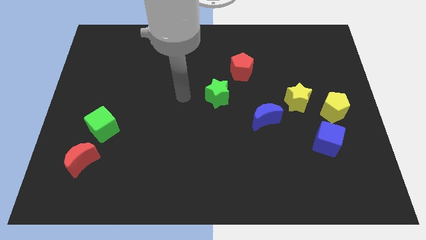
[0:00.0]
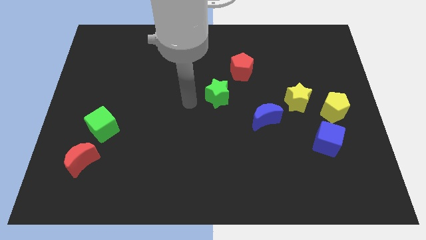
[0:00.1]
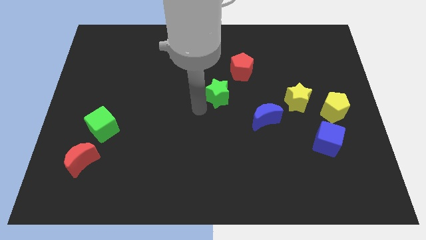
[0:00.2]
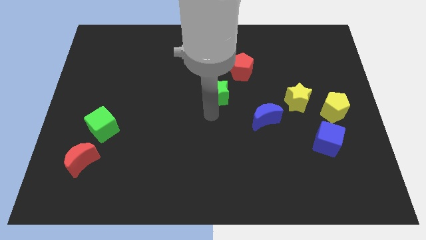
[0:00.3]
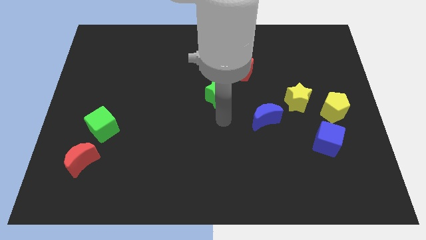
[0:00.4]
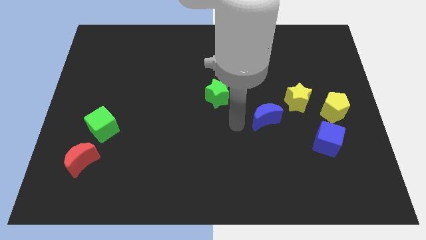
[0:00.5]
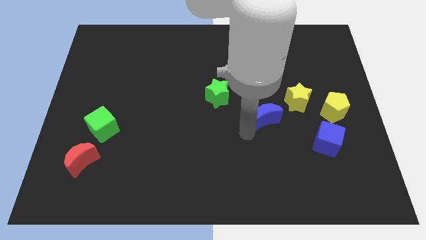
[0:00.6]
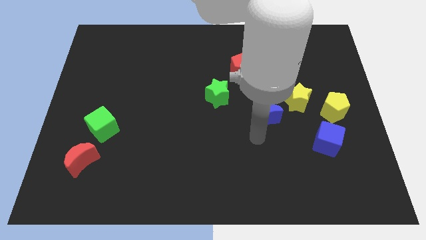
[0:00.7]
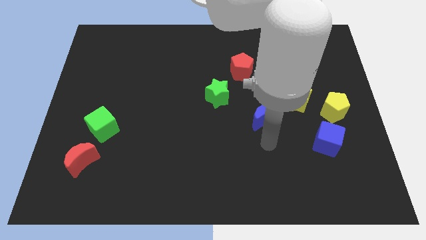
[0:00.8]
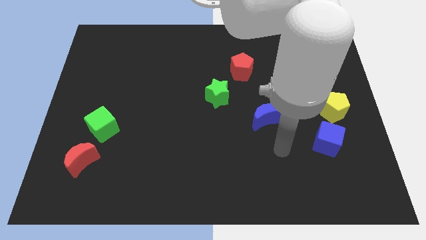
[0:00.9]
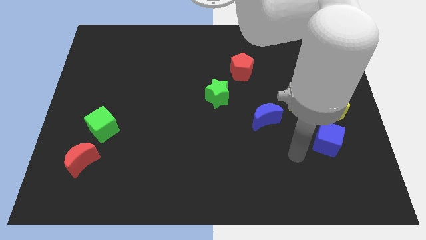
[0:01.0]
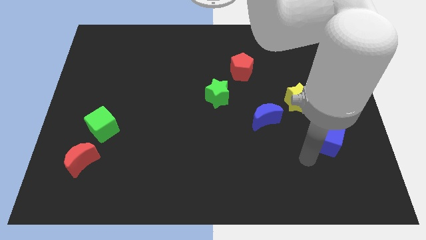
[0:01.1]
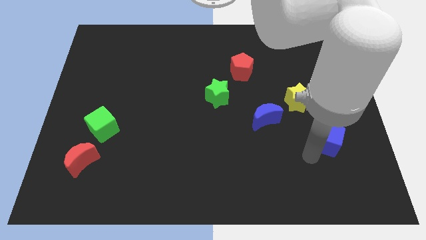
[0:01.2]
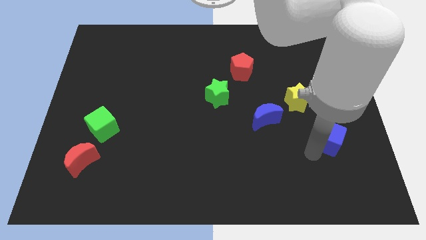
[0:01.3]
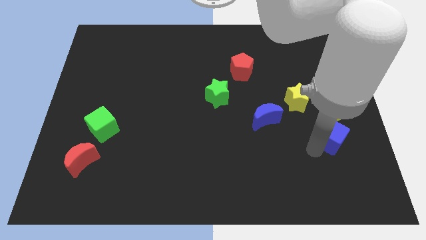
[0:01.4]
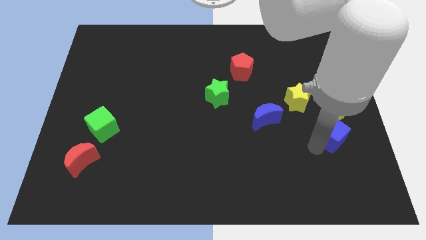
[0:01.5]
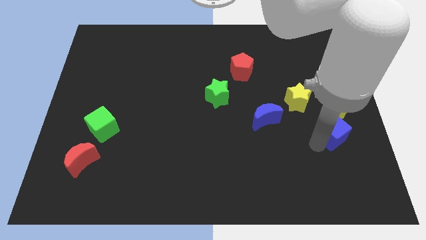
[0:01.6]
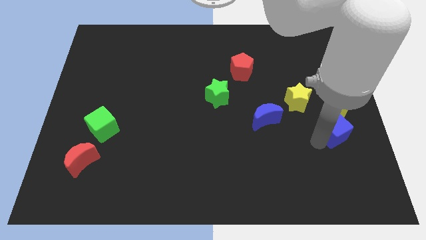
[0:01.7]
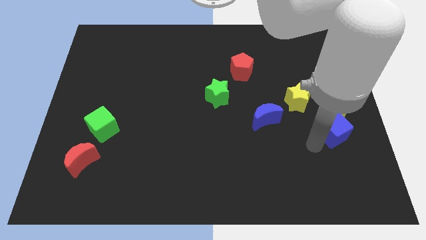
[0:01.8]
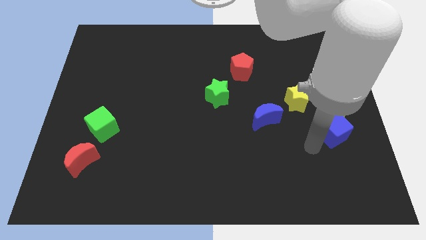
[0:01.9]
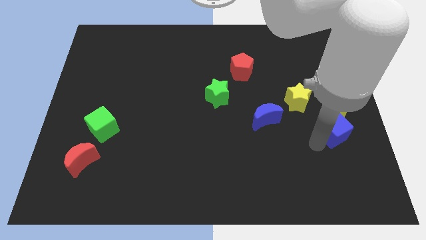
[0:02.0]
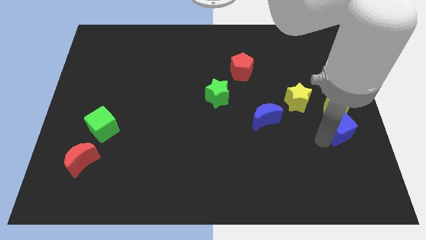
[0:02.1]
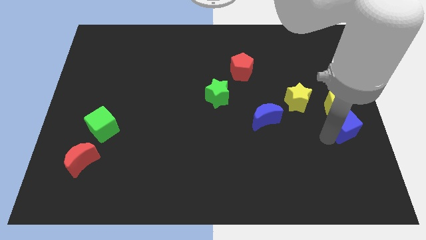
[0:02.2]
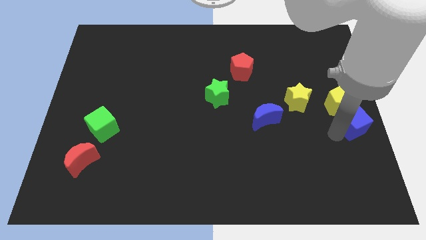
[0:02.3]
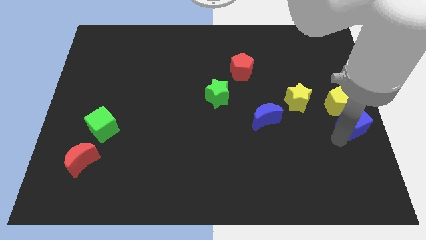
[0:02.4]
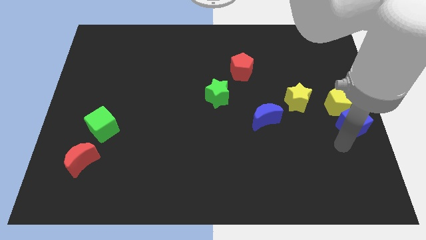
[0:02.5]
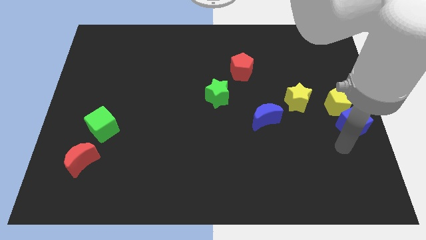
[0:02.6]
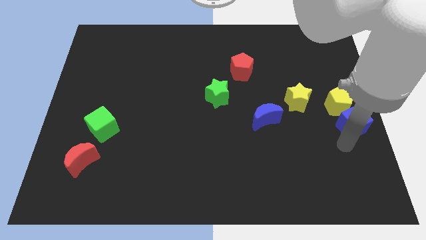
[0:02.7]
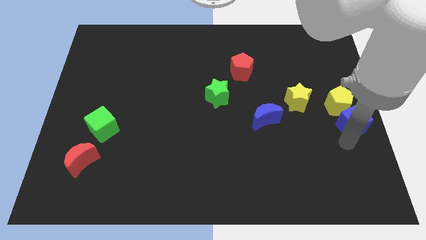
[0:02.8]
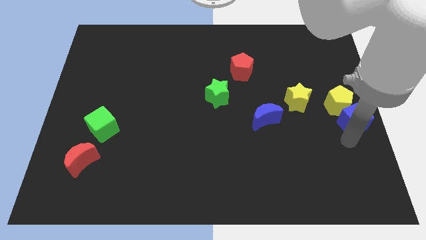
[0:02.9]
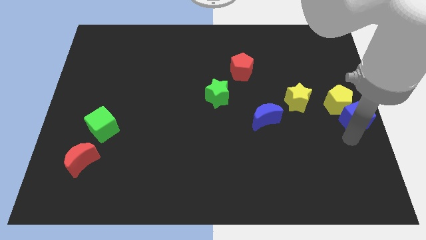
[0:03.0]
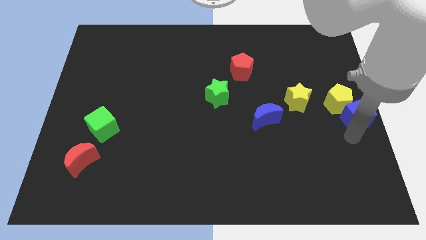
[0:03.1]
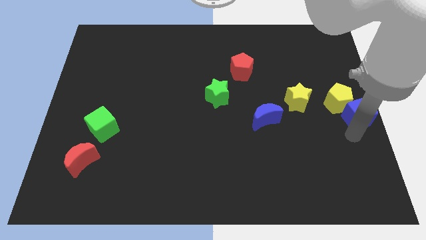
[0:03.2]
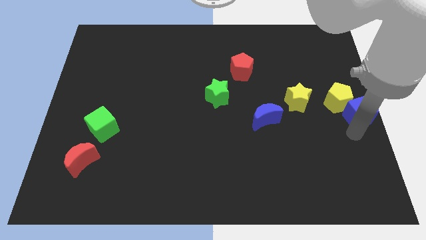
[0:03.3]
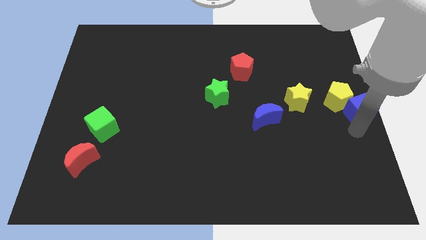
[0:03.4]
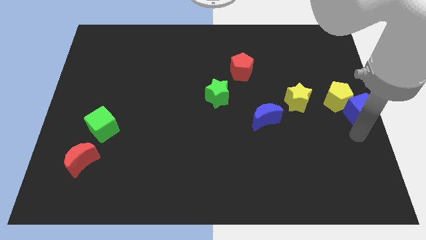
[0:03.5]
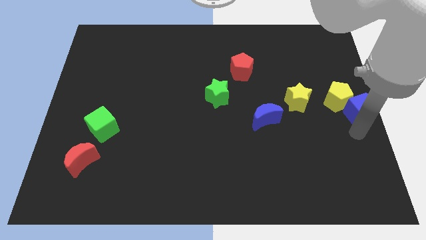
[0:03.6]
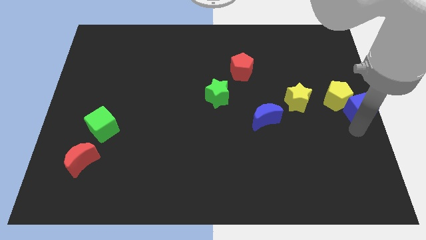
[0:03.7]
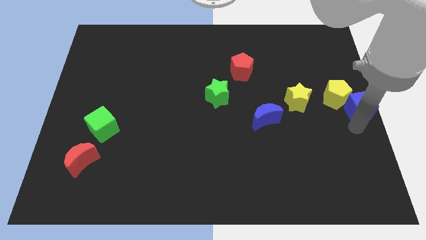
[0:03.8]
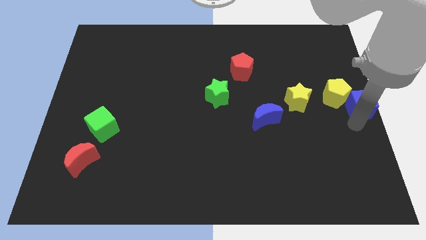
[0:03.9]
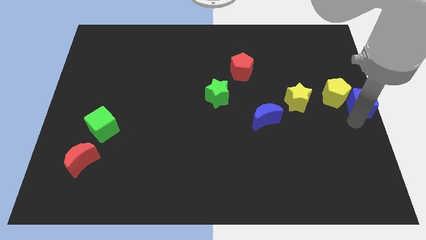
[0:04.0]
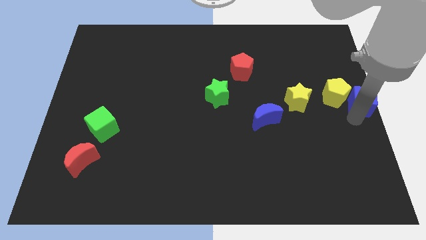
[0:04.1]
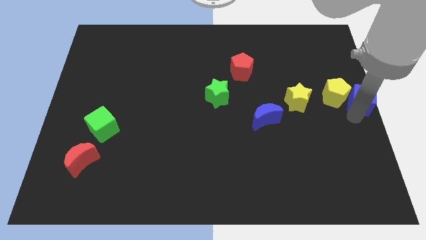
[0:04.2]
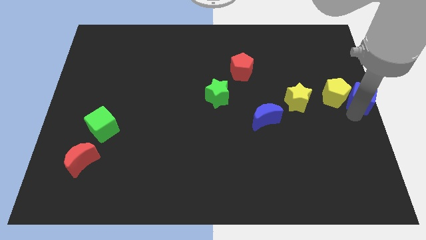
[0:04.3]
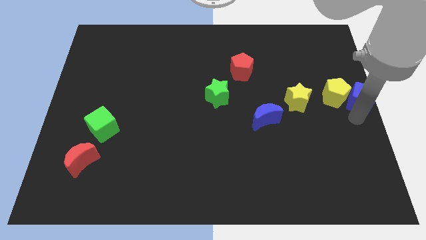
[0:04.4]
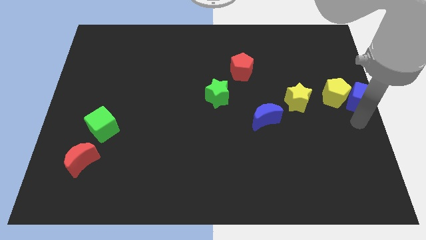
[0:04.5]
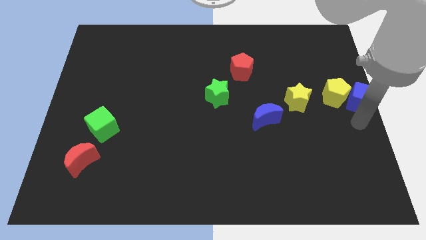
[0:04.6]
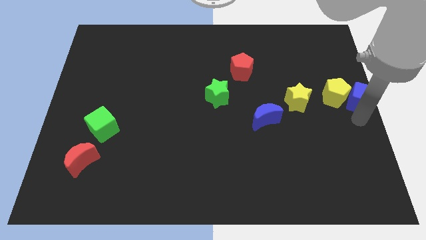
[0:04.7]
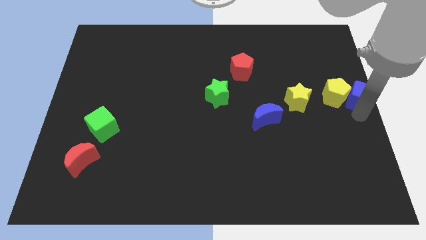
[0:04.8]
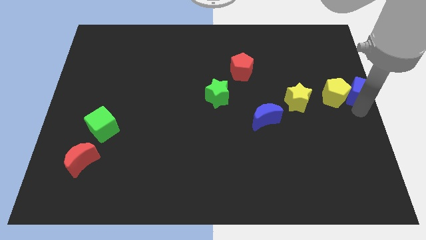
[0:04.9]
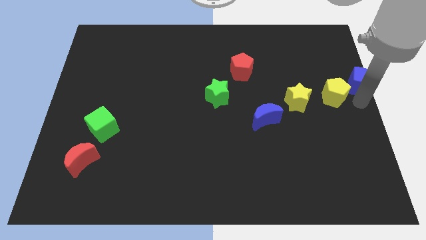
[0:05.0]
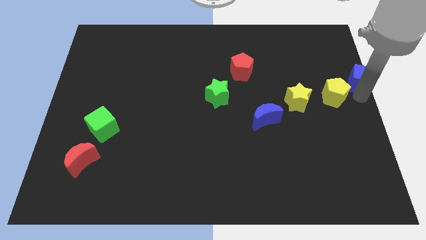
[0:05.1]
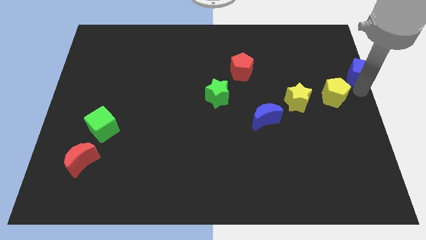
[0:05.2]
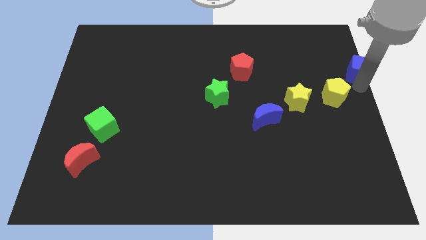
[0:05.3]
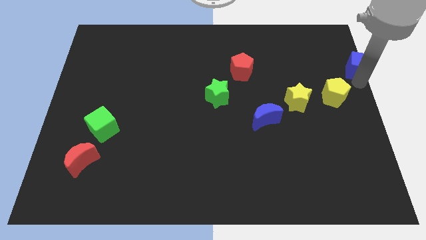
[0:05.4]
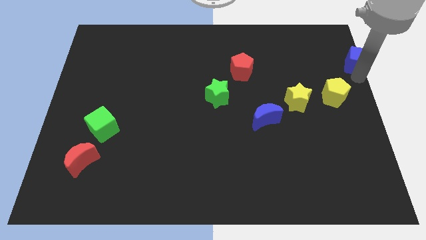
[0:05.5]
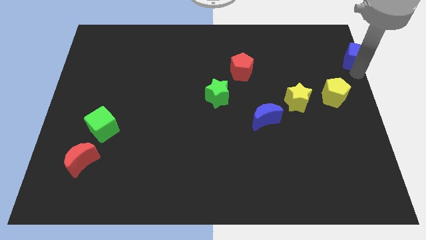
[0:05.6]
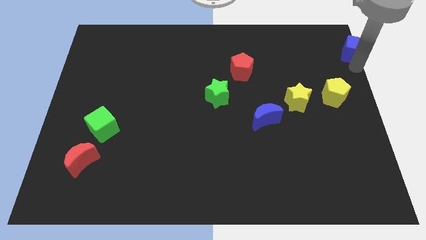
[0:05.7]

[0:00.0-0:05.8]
slide the blue cube to the top right of the board
